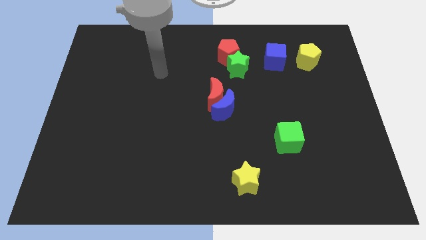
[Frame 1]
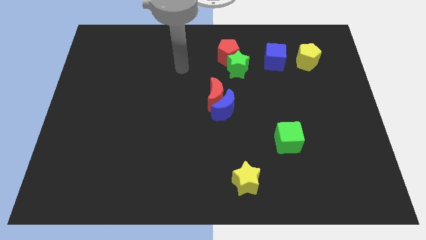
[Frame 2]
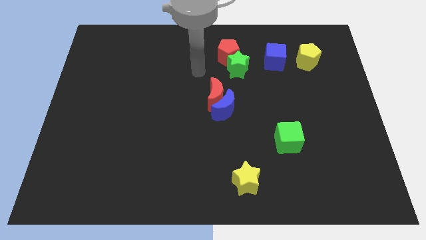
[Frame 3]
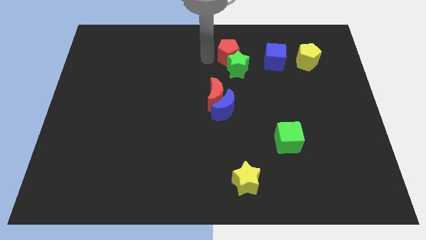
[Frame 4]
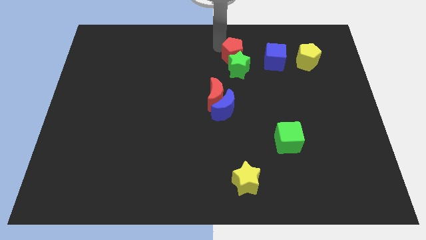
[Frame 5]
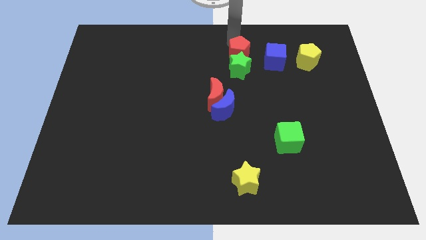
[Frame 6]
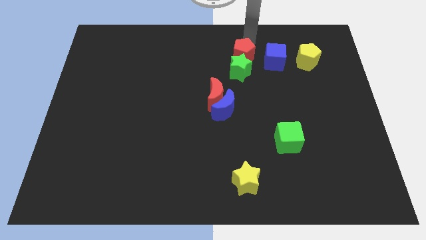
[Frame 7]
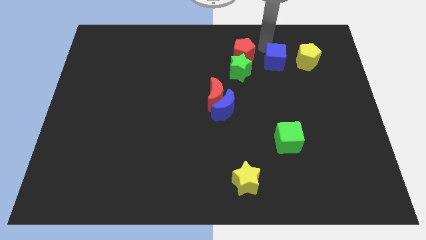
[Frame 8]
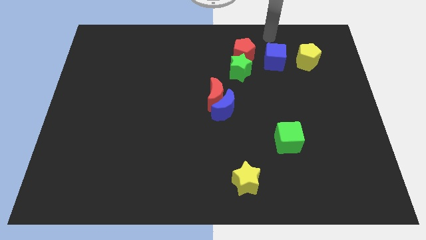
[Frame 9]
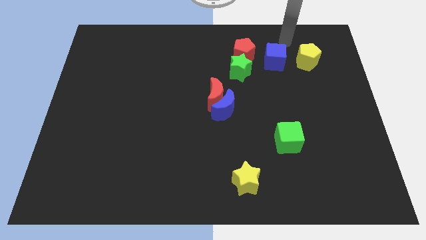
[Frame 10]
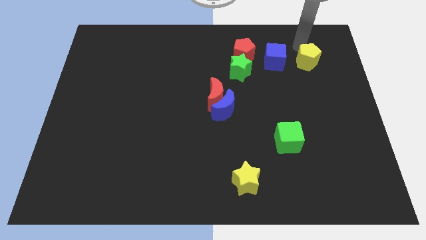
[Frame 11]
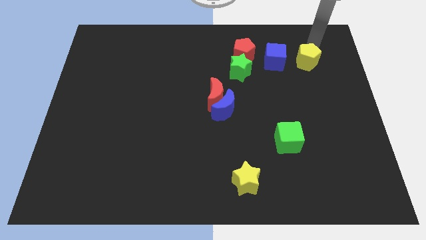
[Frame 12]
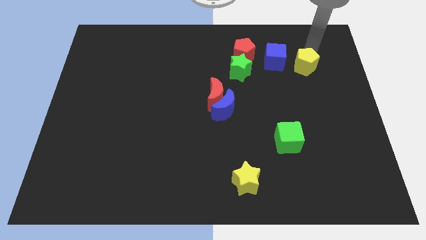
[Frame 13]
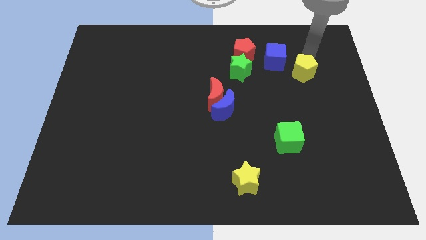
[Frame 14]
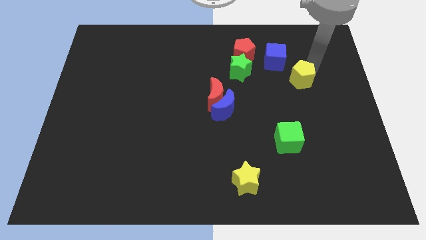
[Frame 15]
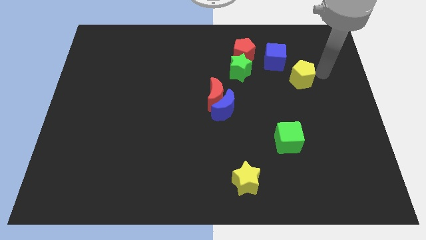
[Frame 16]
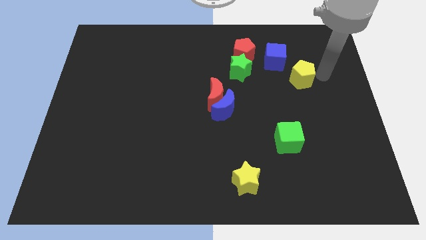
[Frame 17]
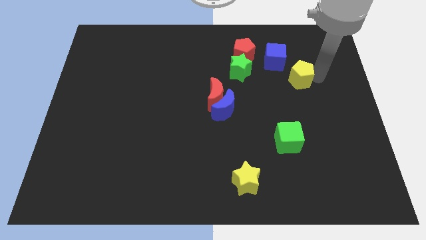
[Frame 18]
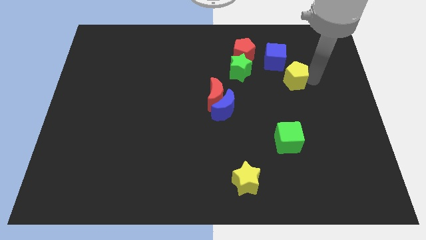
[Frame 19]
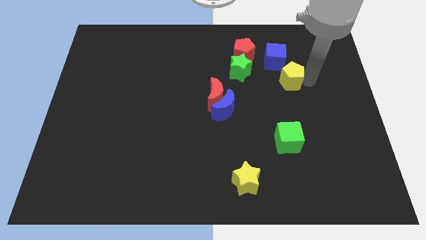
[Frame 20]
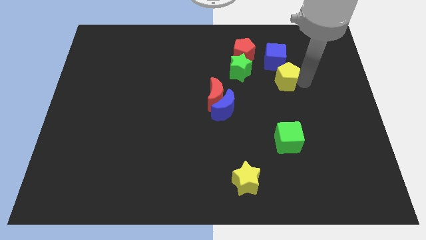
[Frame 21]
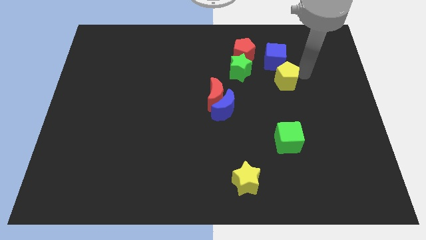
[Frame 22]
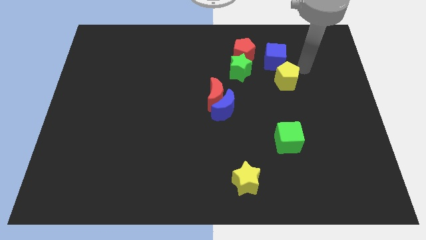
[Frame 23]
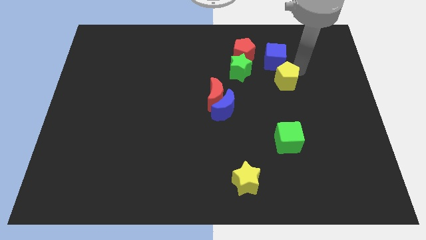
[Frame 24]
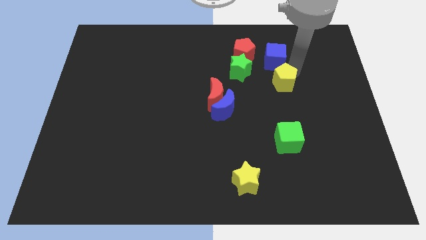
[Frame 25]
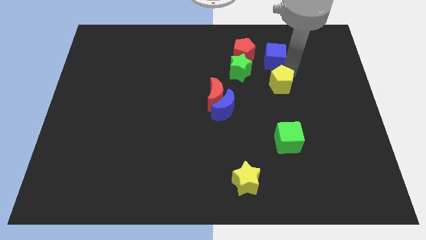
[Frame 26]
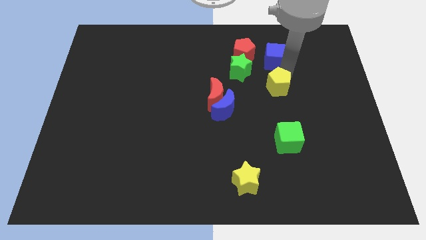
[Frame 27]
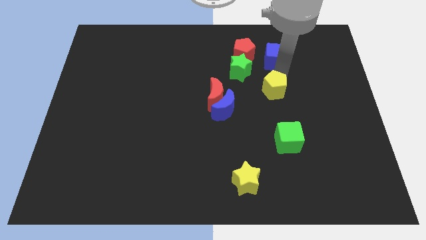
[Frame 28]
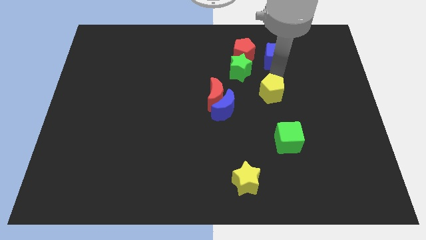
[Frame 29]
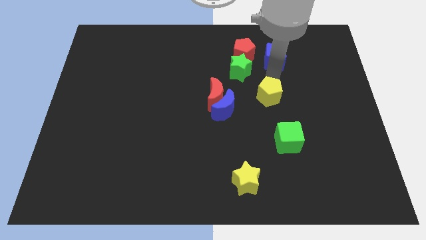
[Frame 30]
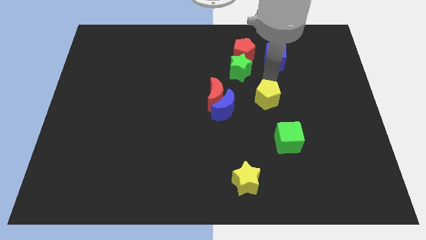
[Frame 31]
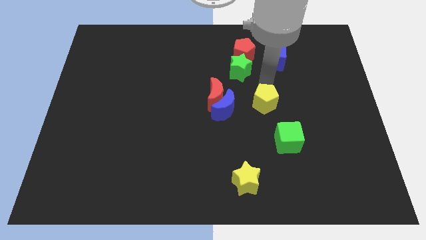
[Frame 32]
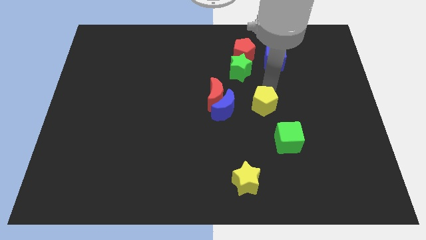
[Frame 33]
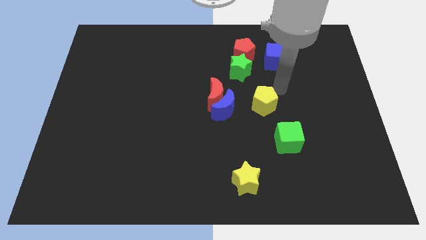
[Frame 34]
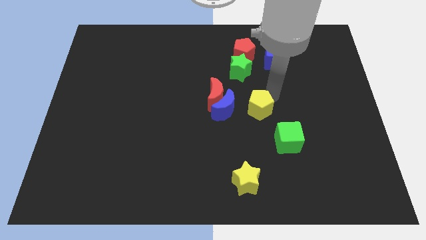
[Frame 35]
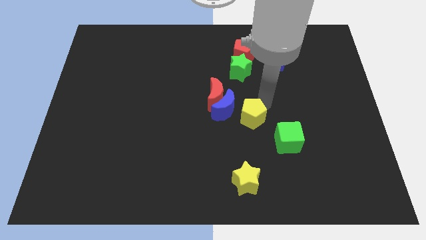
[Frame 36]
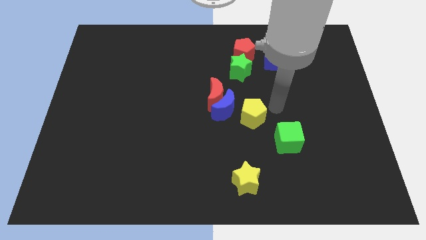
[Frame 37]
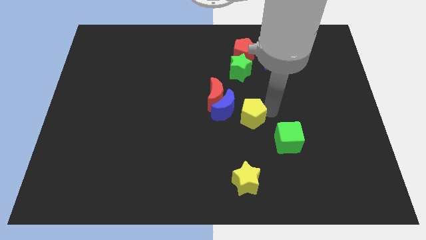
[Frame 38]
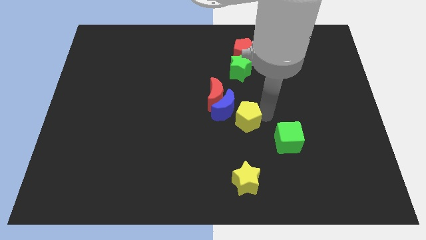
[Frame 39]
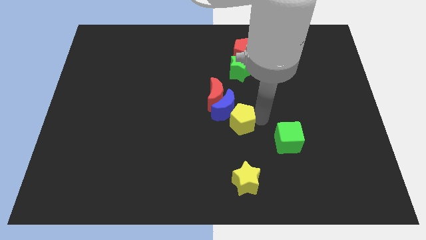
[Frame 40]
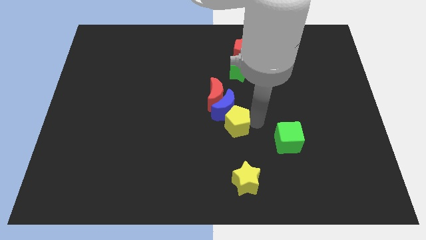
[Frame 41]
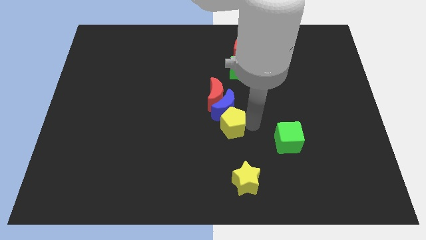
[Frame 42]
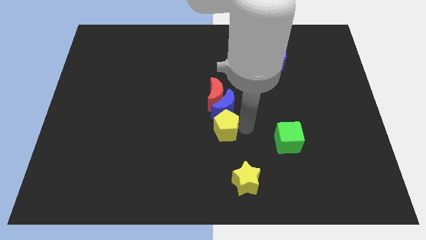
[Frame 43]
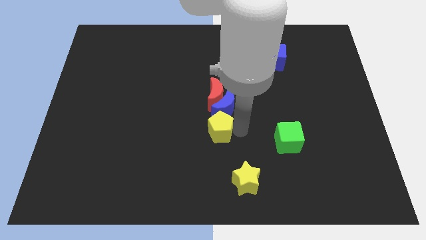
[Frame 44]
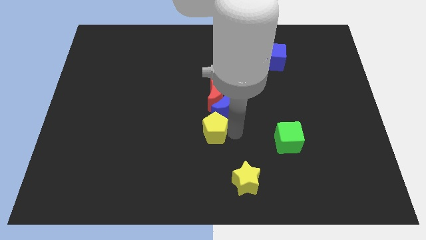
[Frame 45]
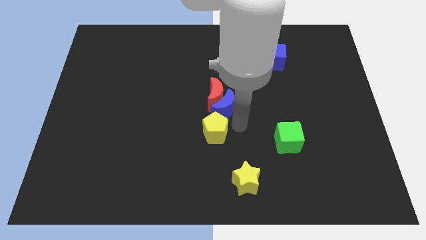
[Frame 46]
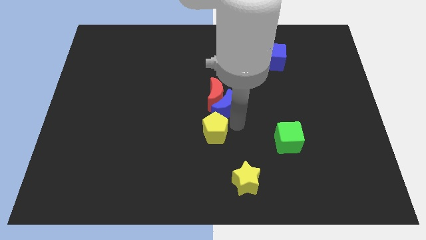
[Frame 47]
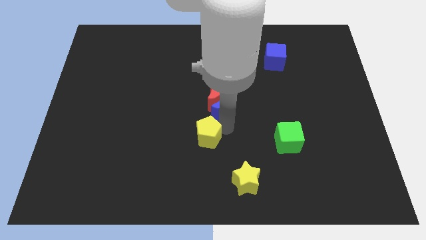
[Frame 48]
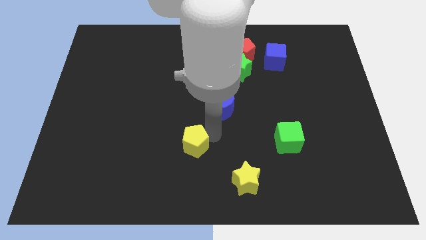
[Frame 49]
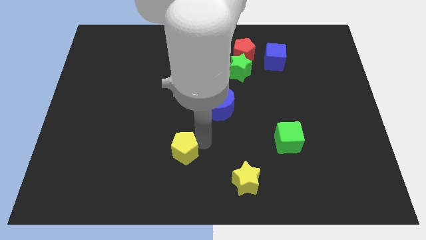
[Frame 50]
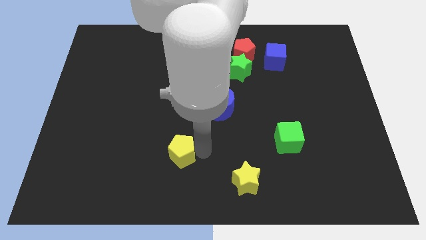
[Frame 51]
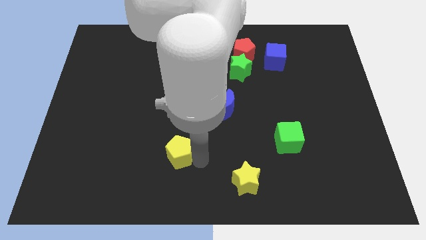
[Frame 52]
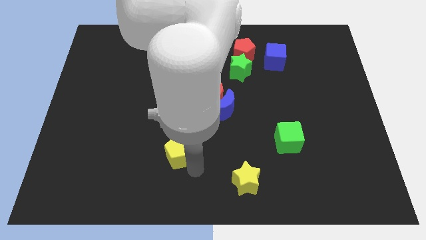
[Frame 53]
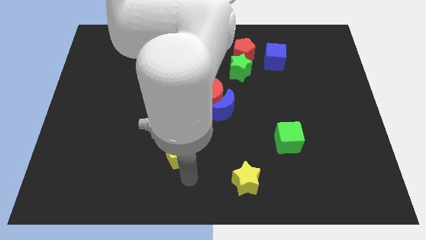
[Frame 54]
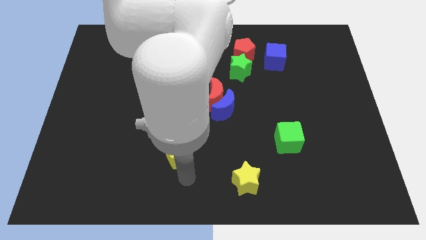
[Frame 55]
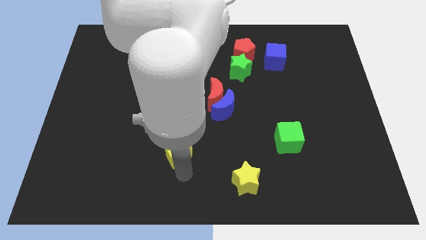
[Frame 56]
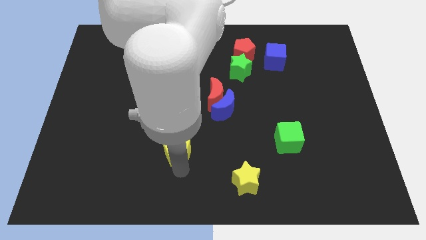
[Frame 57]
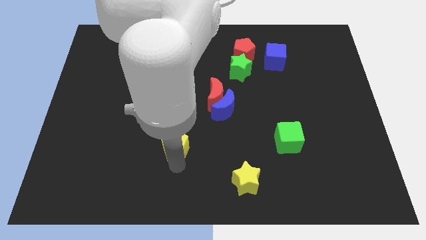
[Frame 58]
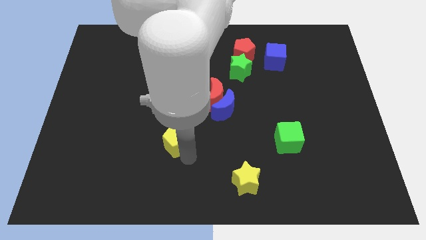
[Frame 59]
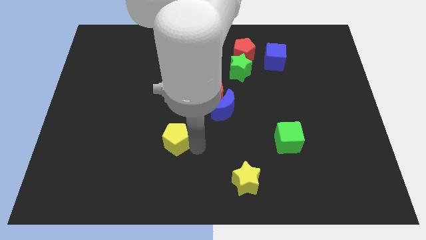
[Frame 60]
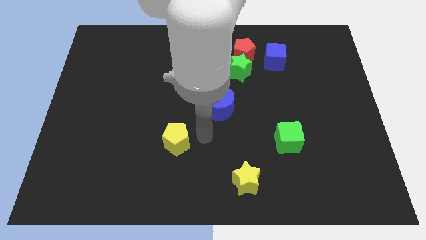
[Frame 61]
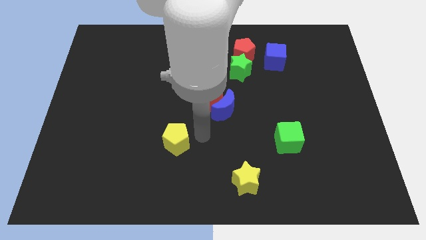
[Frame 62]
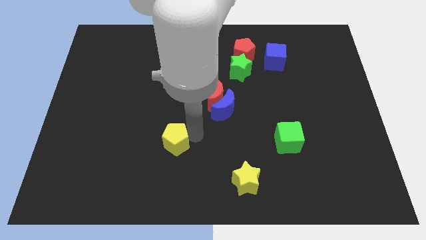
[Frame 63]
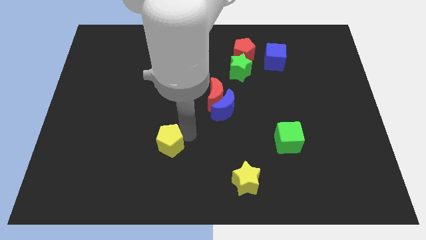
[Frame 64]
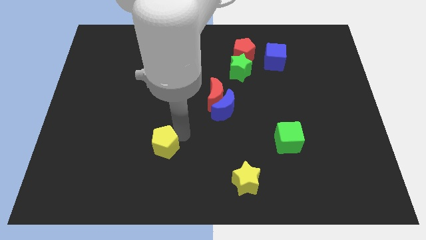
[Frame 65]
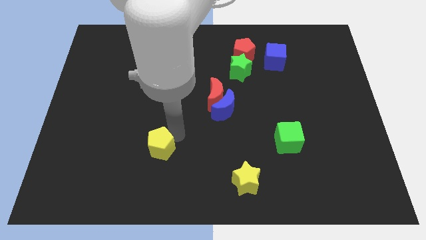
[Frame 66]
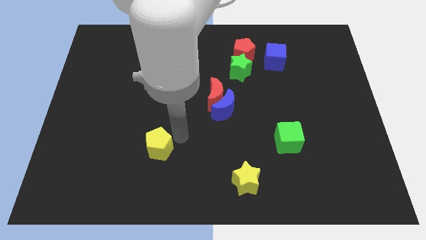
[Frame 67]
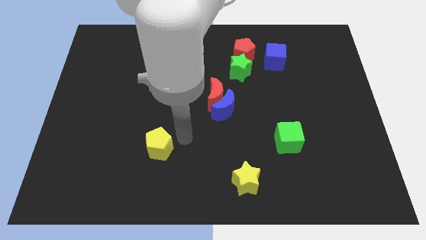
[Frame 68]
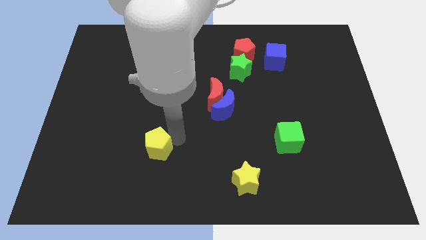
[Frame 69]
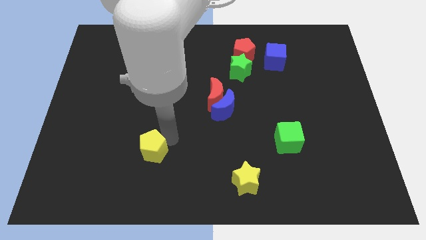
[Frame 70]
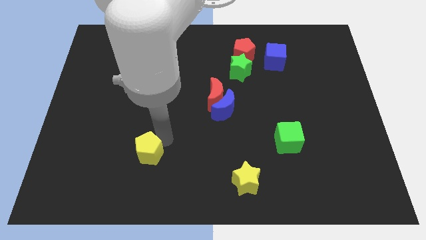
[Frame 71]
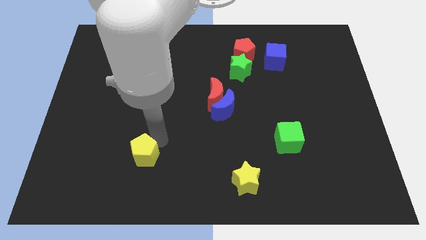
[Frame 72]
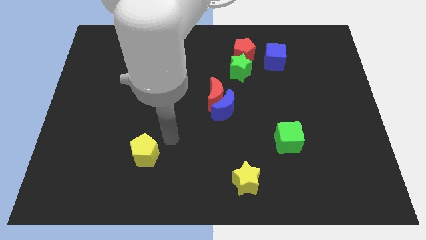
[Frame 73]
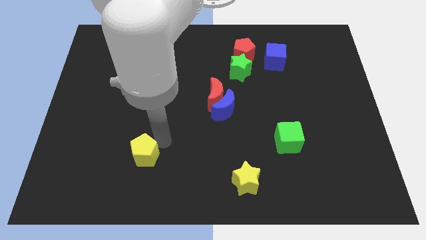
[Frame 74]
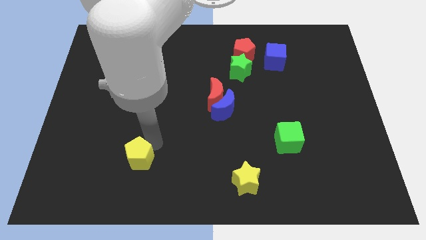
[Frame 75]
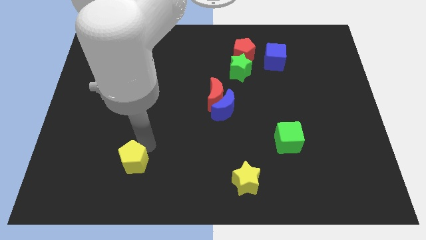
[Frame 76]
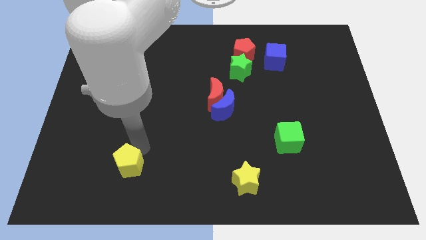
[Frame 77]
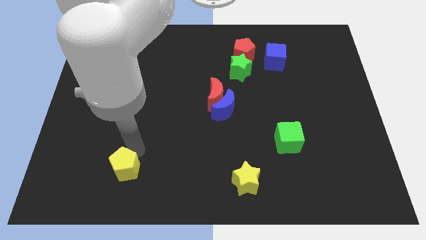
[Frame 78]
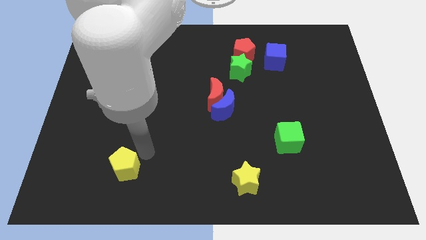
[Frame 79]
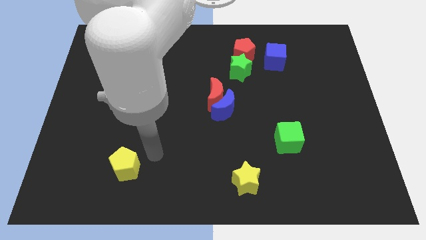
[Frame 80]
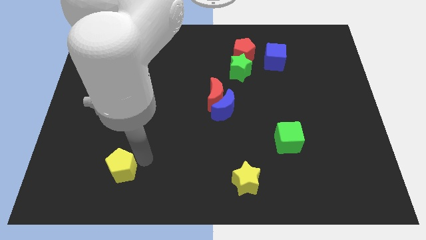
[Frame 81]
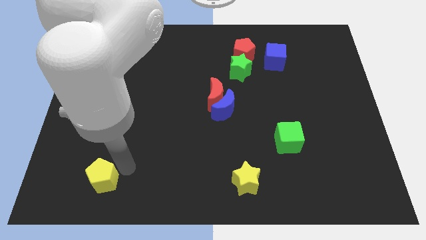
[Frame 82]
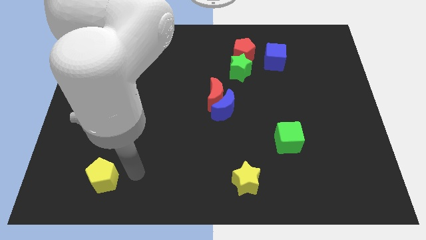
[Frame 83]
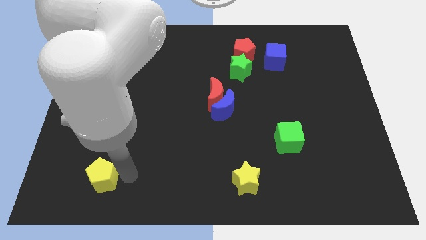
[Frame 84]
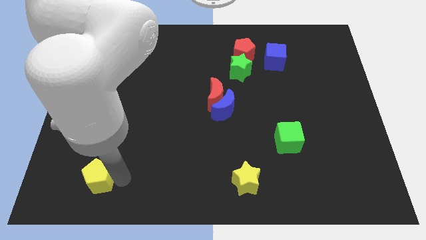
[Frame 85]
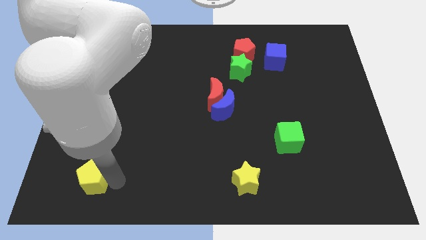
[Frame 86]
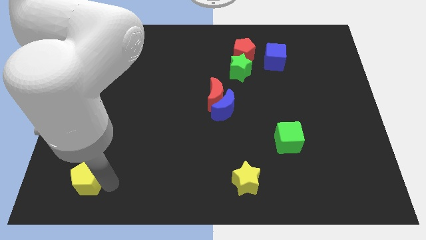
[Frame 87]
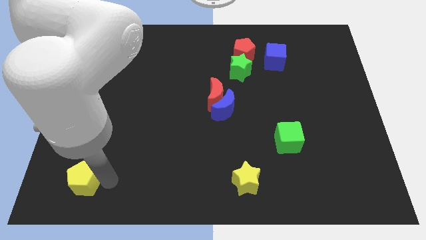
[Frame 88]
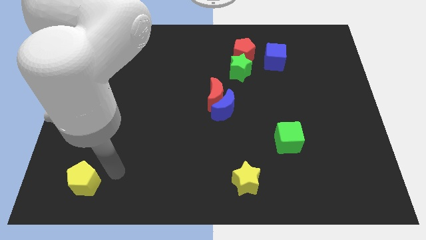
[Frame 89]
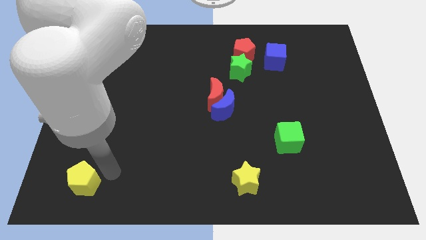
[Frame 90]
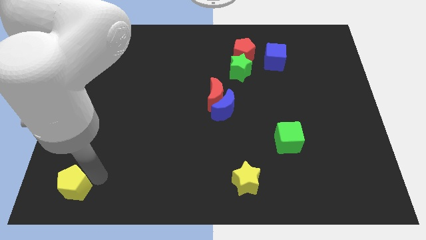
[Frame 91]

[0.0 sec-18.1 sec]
put the yellow pentagon to the bottom left of the board
